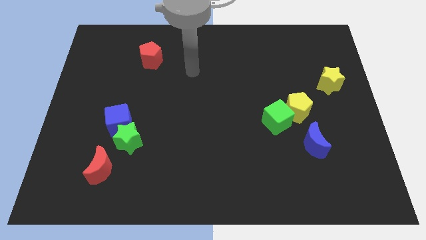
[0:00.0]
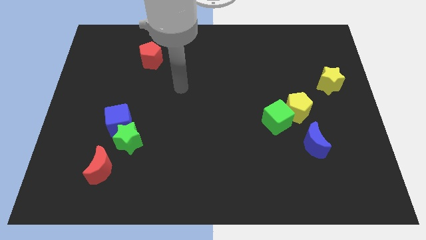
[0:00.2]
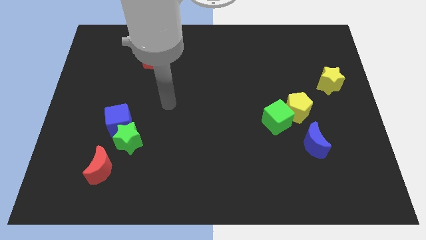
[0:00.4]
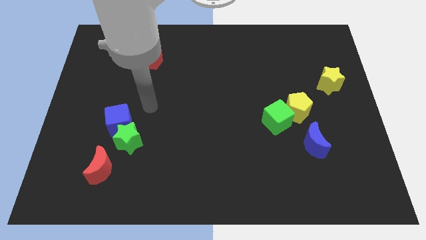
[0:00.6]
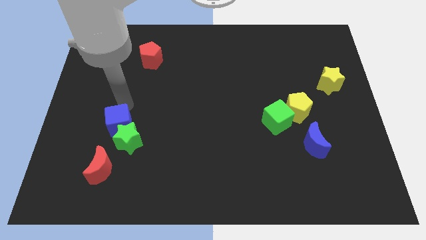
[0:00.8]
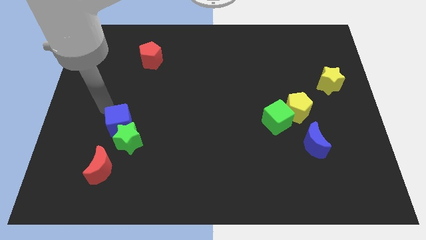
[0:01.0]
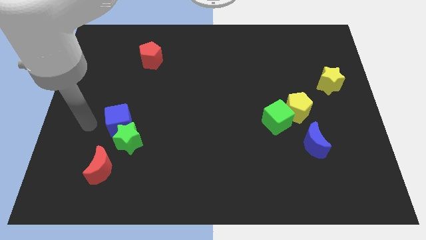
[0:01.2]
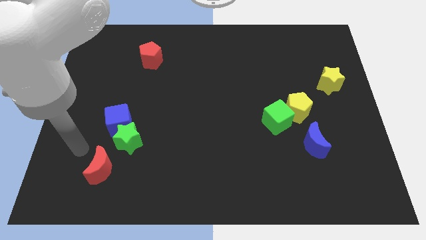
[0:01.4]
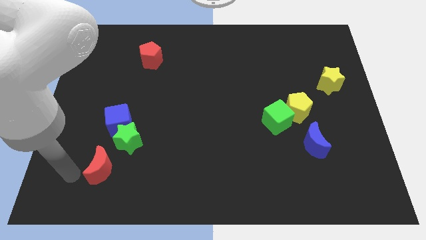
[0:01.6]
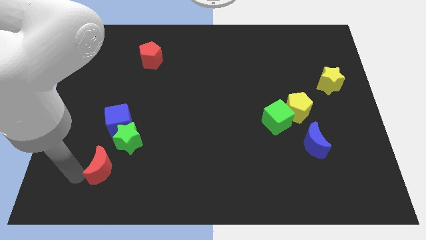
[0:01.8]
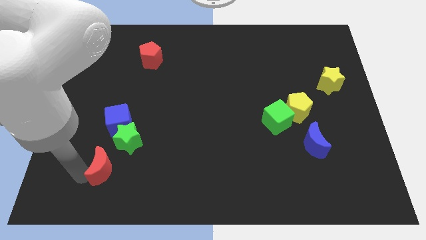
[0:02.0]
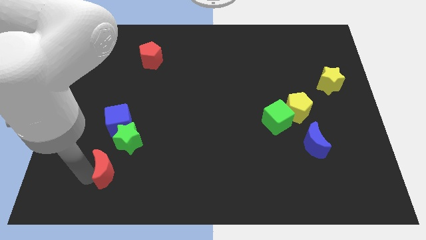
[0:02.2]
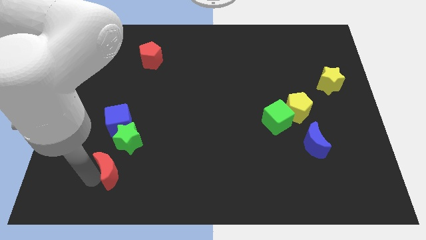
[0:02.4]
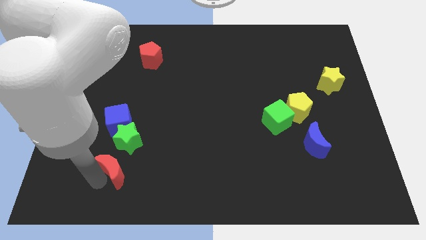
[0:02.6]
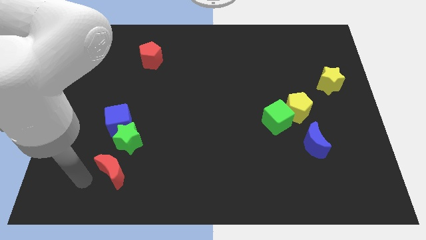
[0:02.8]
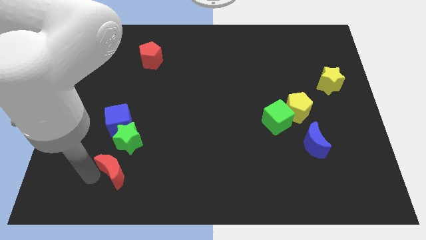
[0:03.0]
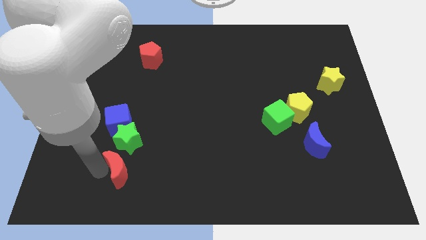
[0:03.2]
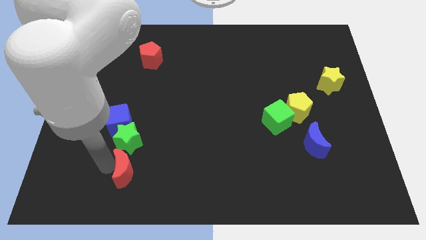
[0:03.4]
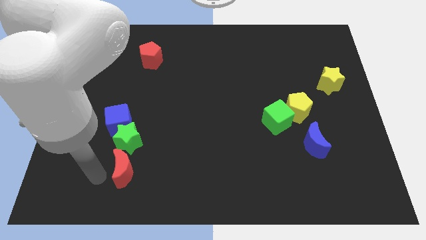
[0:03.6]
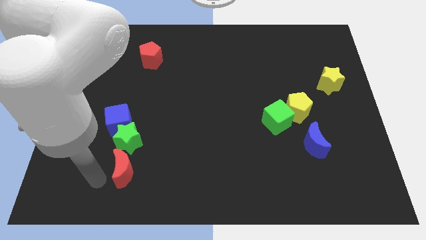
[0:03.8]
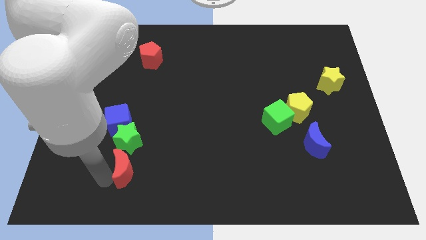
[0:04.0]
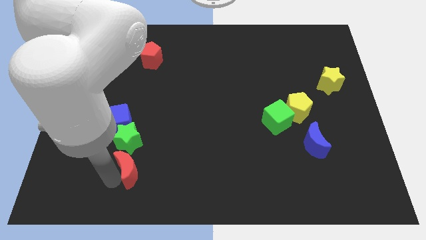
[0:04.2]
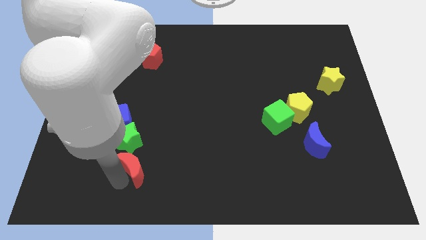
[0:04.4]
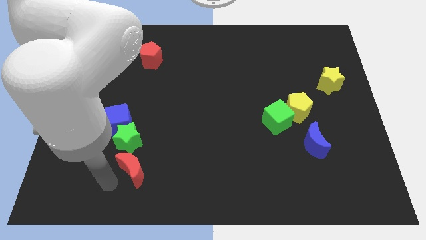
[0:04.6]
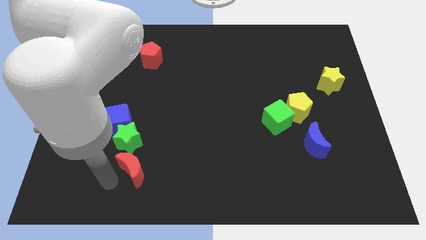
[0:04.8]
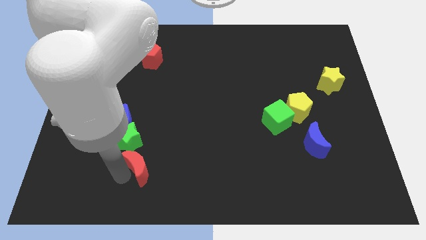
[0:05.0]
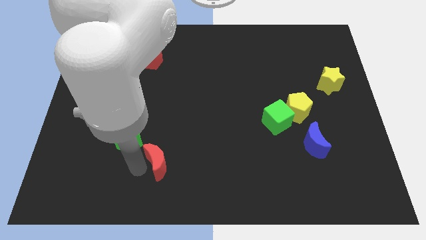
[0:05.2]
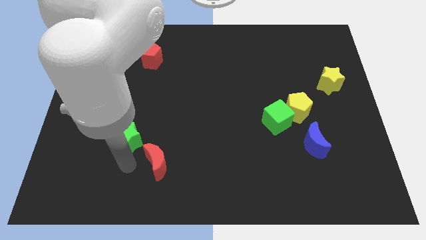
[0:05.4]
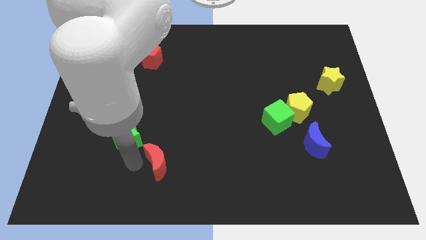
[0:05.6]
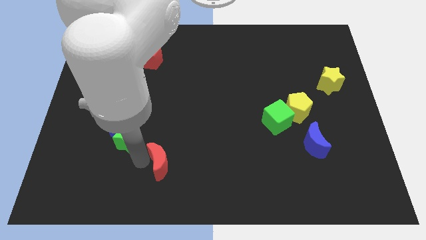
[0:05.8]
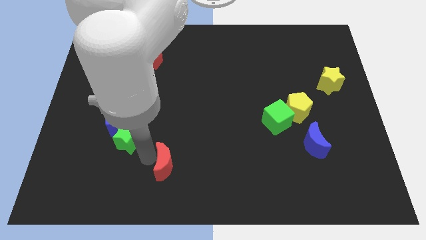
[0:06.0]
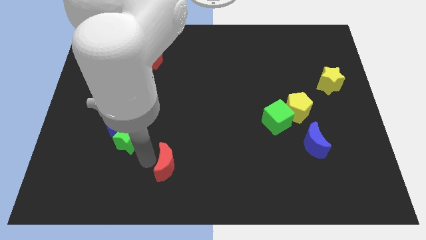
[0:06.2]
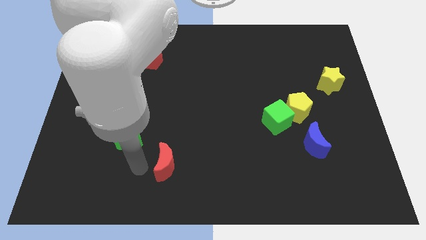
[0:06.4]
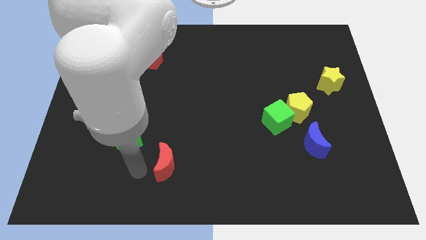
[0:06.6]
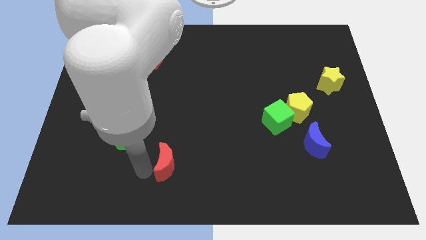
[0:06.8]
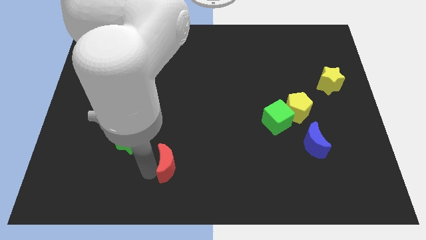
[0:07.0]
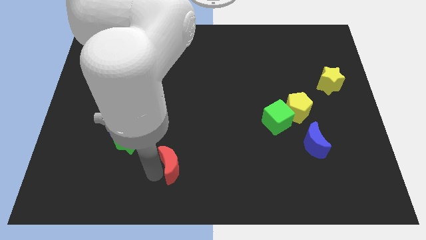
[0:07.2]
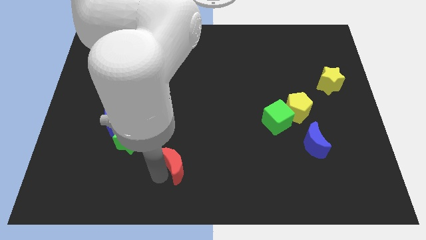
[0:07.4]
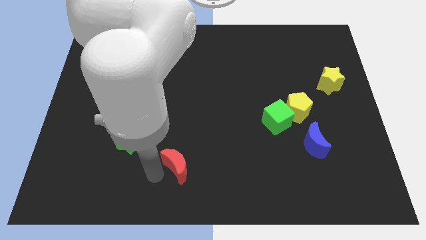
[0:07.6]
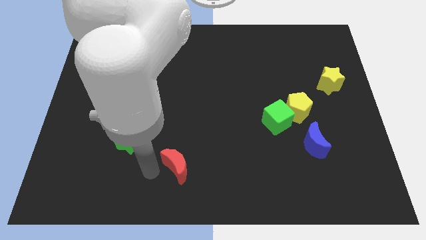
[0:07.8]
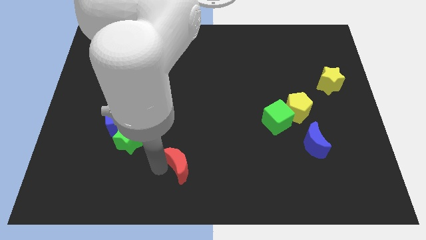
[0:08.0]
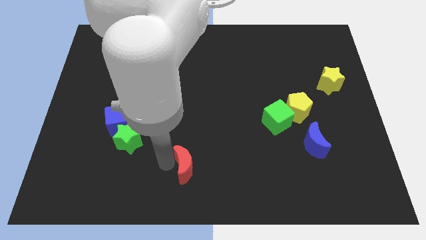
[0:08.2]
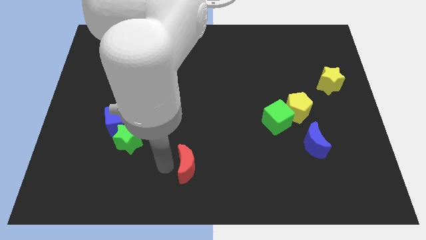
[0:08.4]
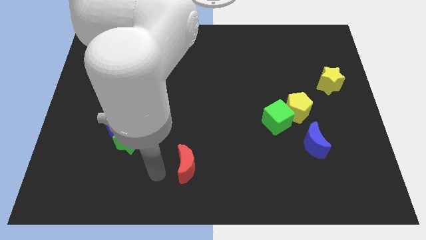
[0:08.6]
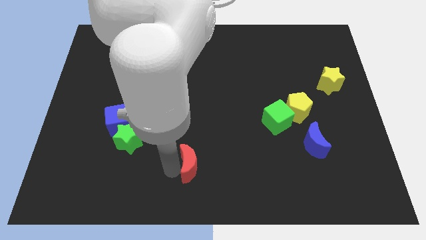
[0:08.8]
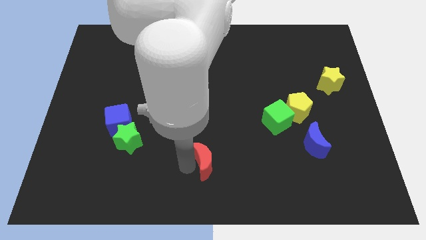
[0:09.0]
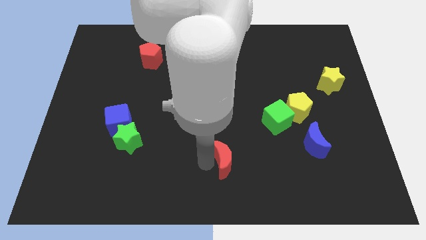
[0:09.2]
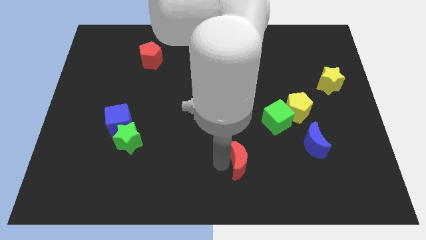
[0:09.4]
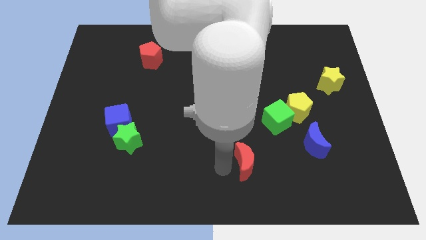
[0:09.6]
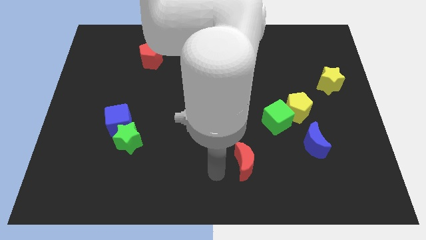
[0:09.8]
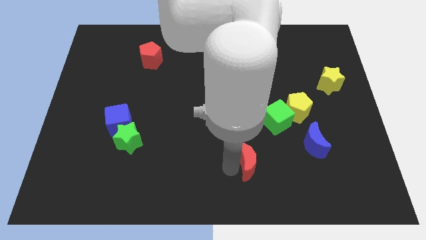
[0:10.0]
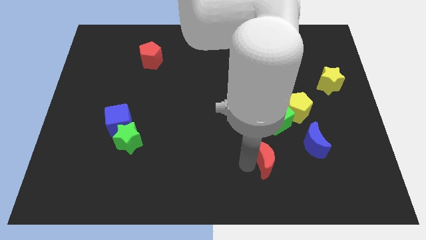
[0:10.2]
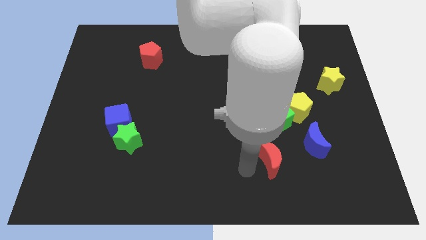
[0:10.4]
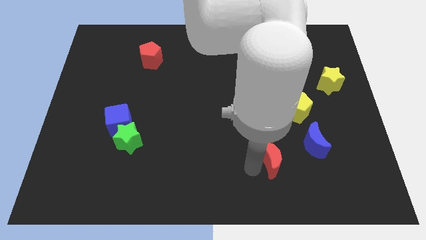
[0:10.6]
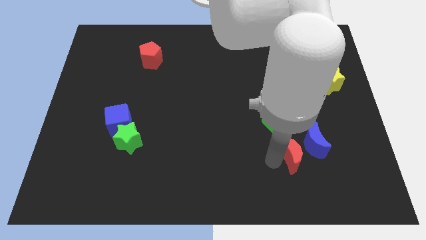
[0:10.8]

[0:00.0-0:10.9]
move the red moon towards the blue moon

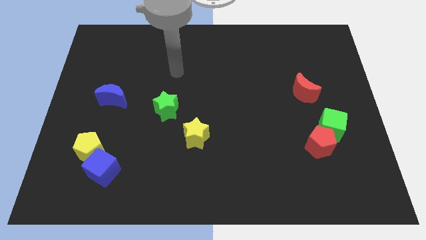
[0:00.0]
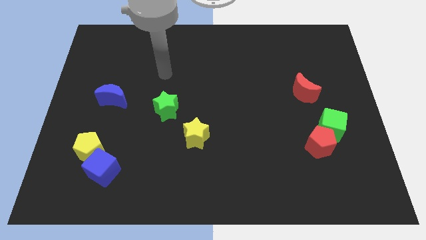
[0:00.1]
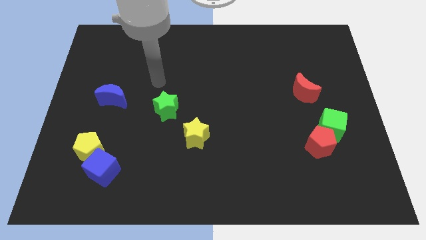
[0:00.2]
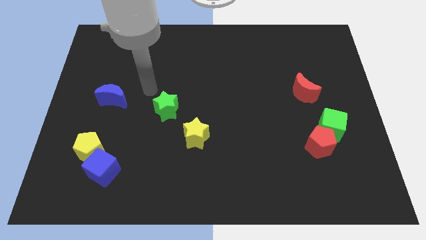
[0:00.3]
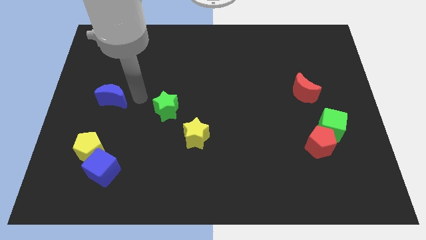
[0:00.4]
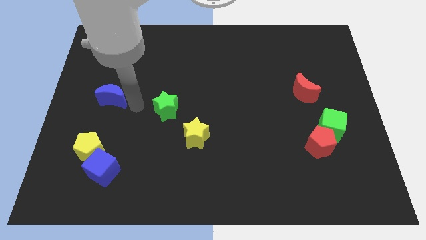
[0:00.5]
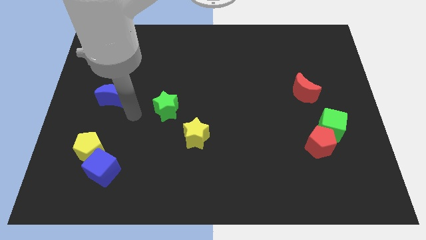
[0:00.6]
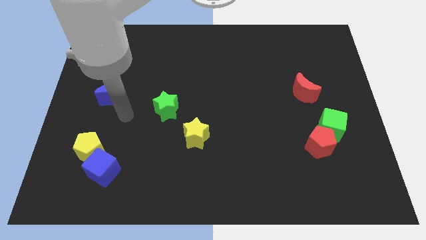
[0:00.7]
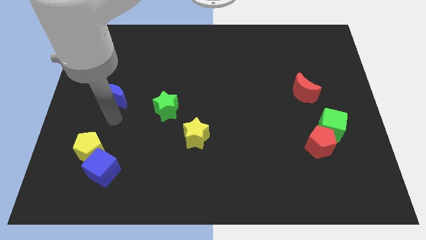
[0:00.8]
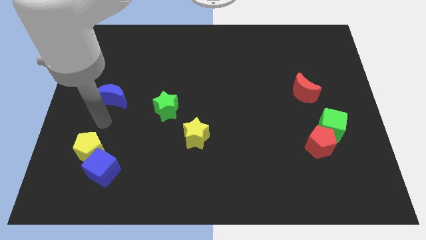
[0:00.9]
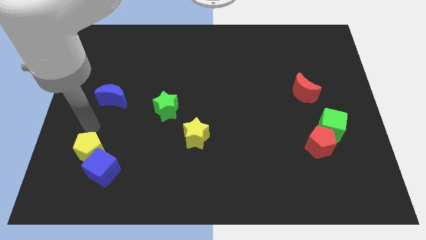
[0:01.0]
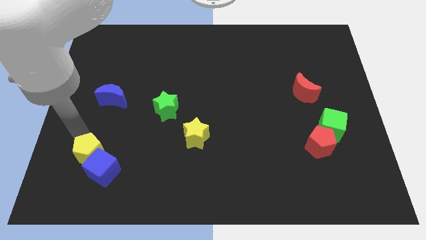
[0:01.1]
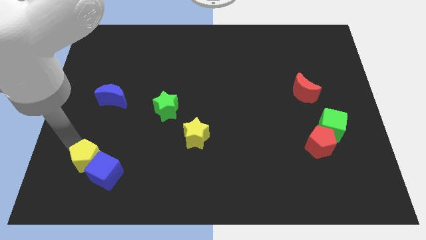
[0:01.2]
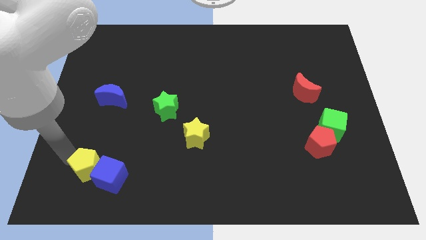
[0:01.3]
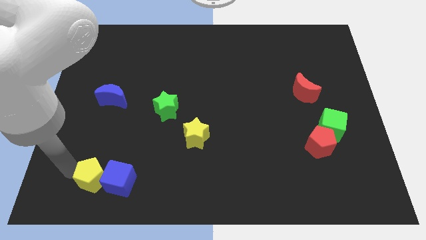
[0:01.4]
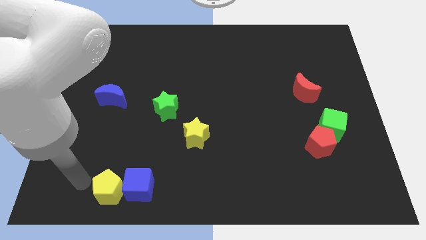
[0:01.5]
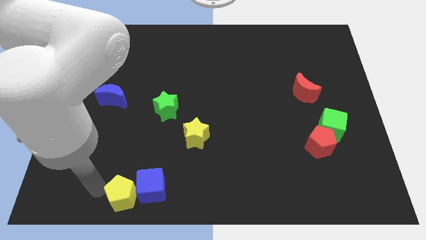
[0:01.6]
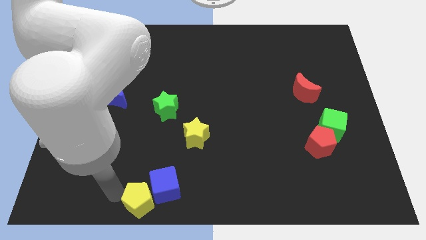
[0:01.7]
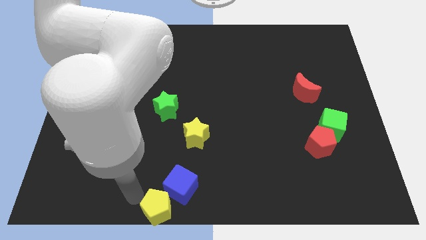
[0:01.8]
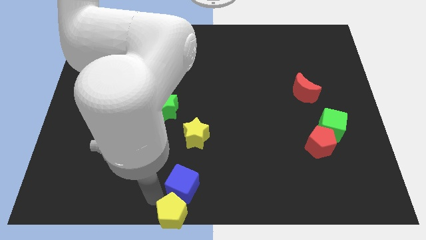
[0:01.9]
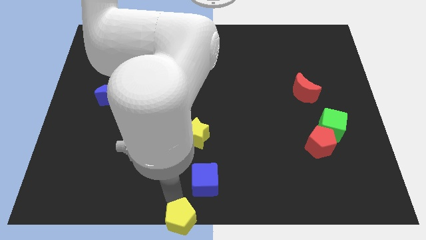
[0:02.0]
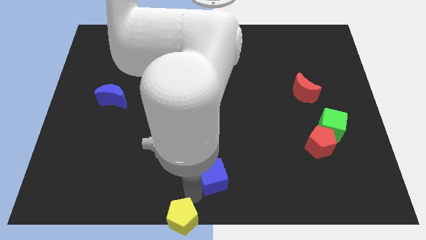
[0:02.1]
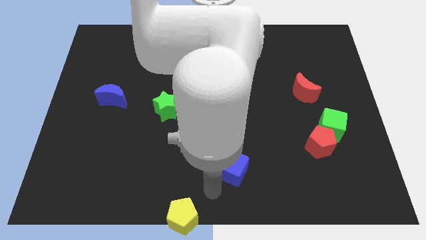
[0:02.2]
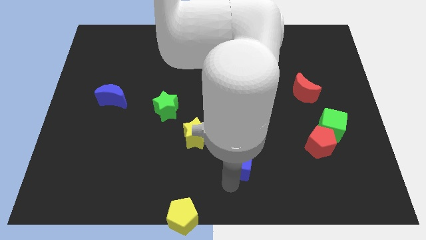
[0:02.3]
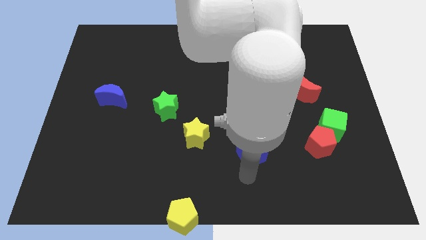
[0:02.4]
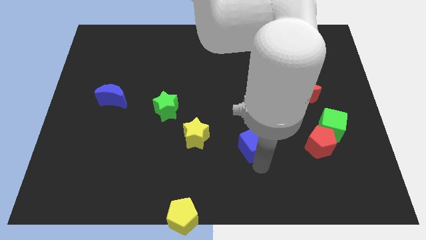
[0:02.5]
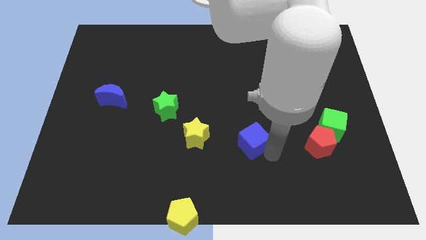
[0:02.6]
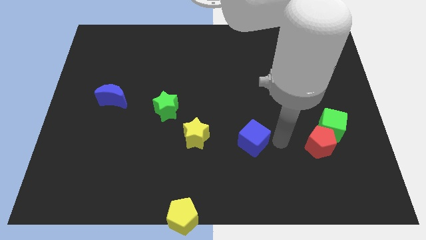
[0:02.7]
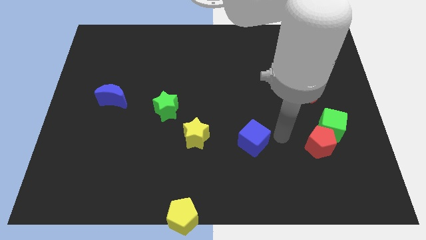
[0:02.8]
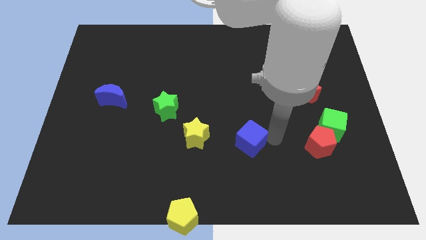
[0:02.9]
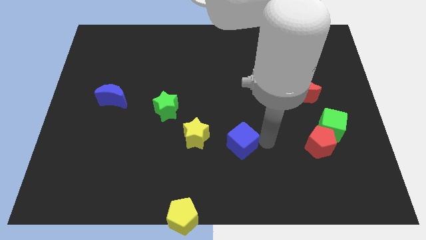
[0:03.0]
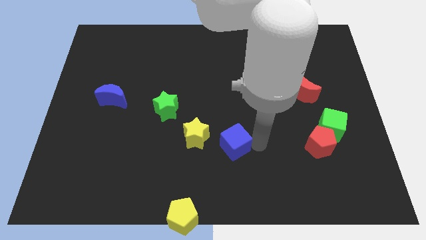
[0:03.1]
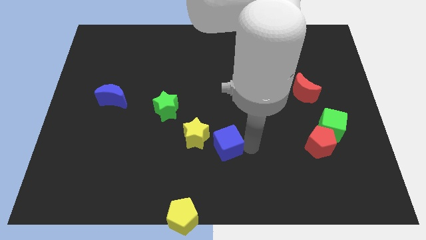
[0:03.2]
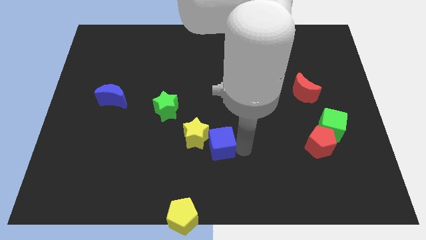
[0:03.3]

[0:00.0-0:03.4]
put the blue cube close to the yellow star
